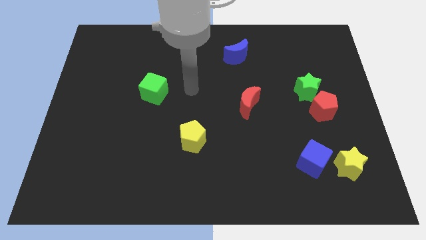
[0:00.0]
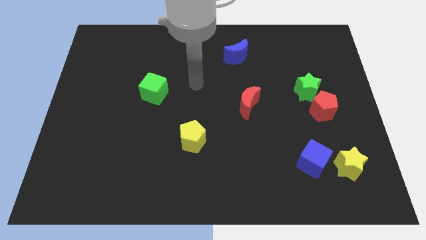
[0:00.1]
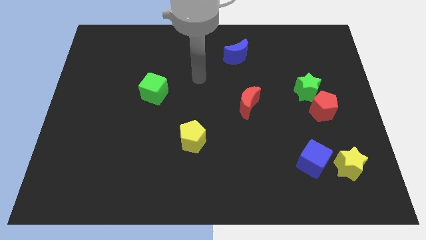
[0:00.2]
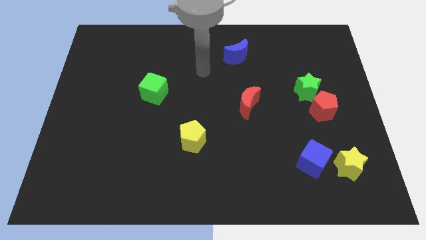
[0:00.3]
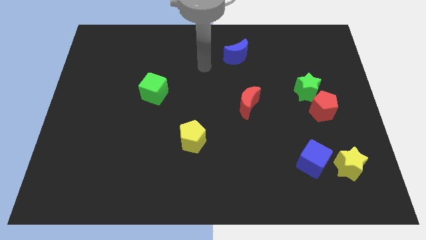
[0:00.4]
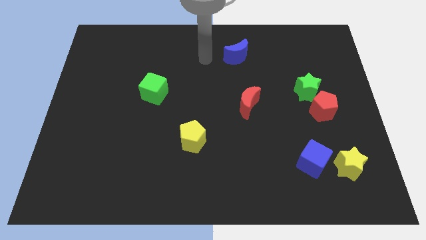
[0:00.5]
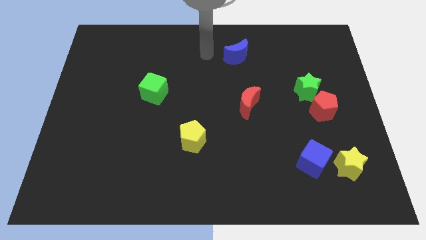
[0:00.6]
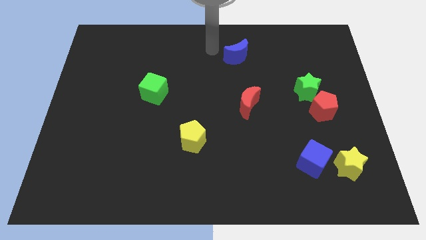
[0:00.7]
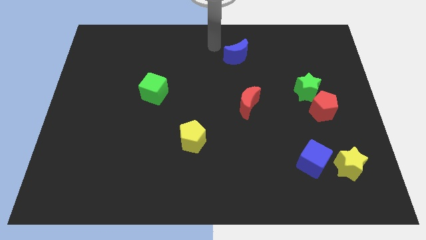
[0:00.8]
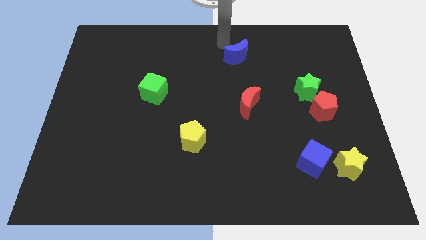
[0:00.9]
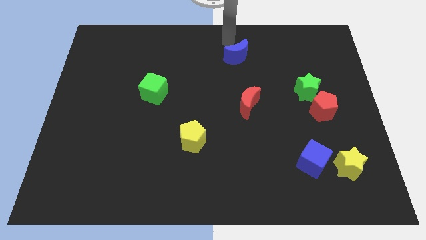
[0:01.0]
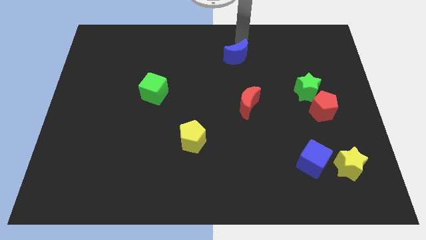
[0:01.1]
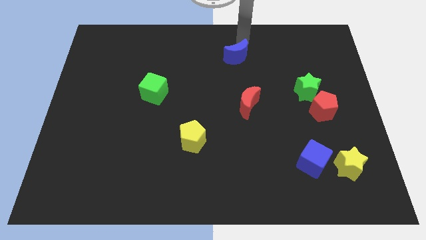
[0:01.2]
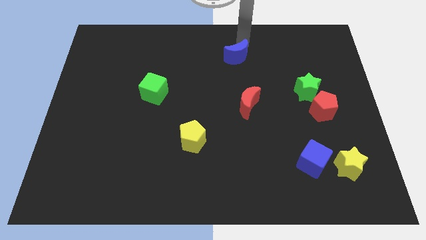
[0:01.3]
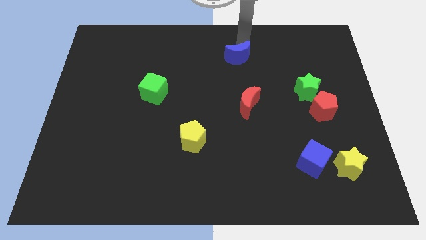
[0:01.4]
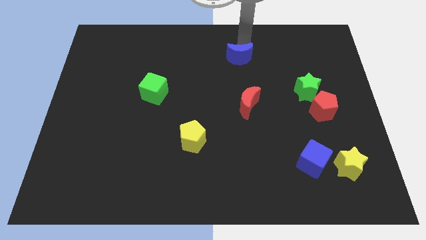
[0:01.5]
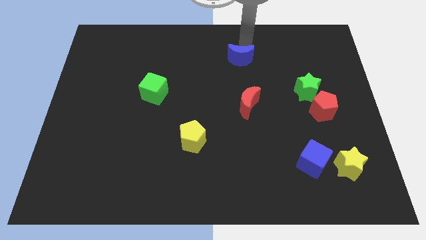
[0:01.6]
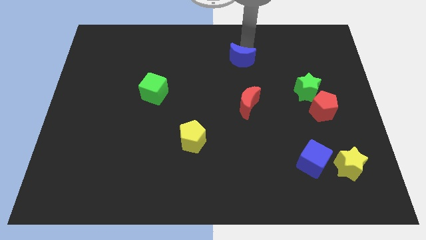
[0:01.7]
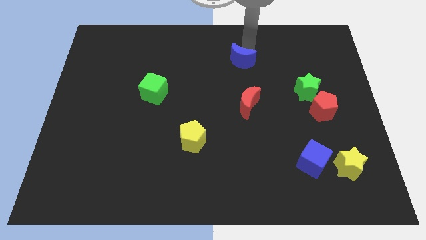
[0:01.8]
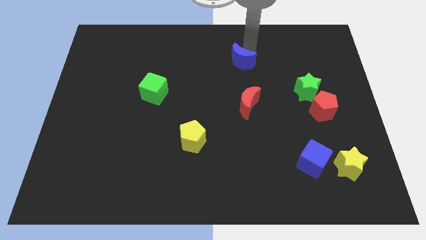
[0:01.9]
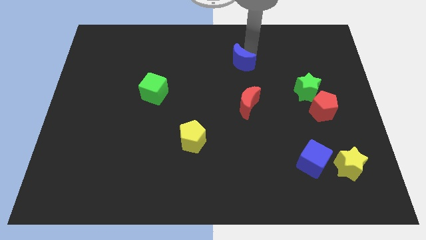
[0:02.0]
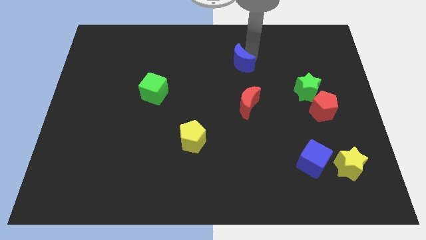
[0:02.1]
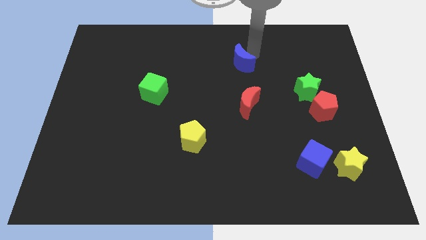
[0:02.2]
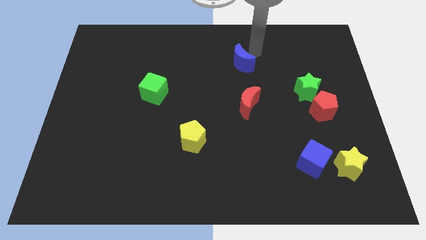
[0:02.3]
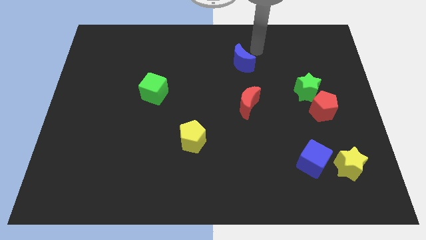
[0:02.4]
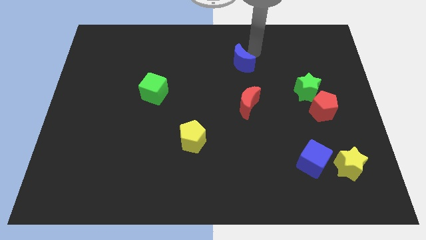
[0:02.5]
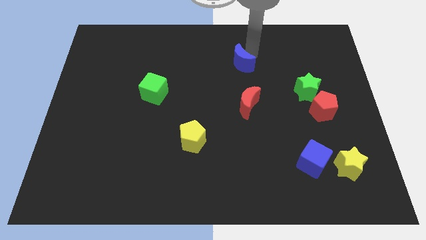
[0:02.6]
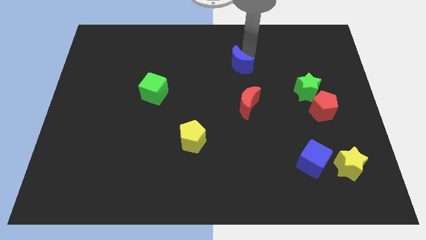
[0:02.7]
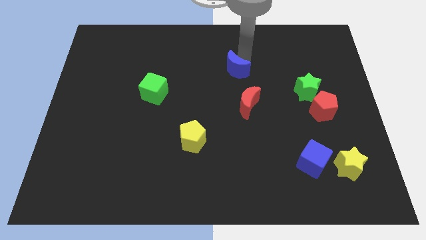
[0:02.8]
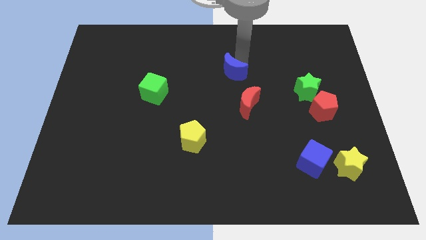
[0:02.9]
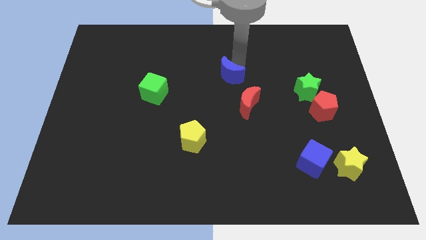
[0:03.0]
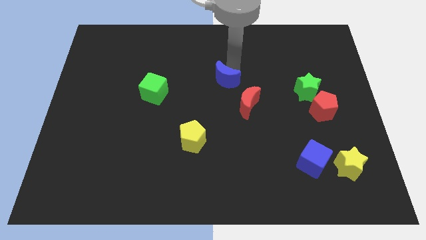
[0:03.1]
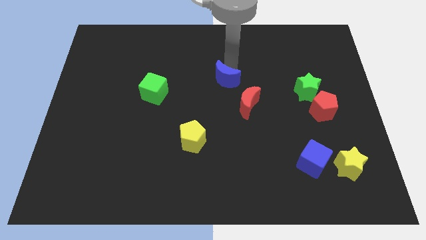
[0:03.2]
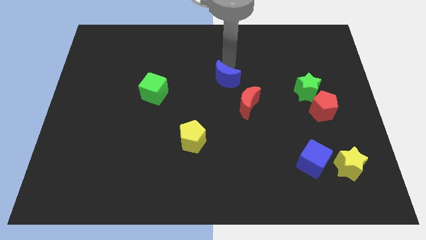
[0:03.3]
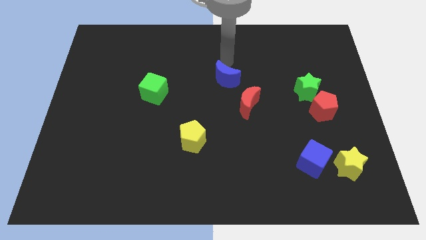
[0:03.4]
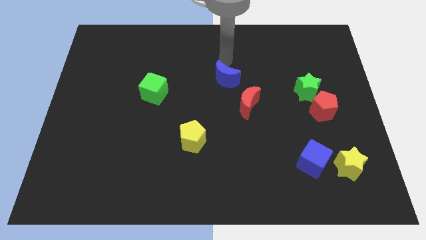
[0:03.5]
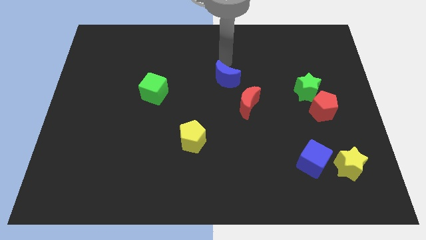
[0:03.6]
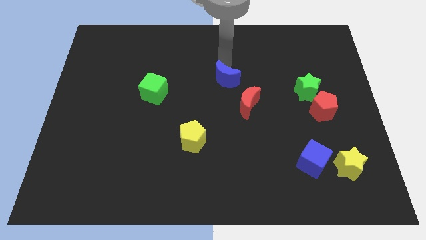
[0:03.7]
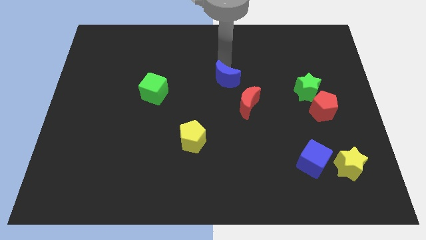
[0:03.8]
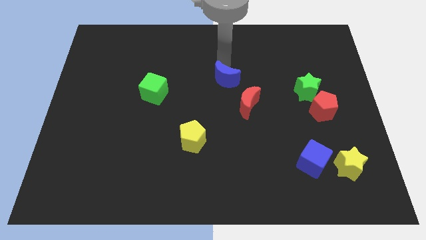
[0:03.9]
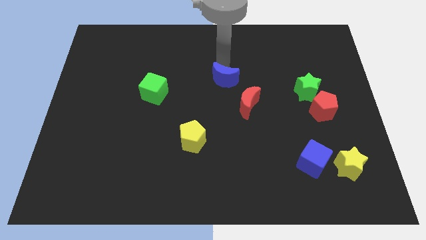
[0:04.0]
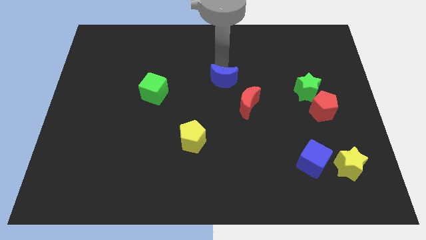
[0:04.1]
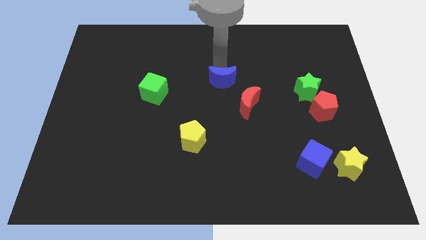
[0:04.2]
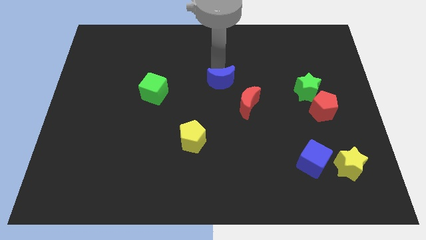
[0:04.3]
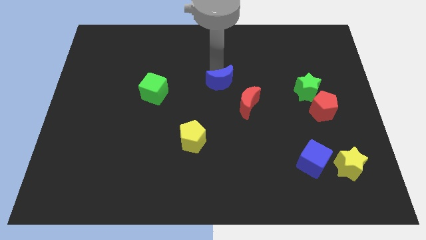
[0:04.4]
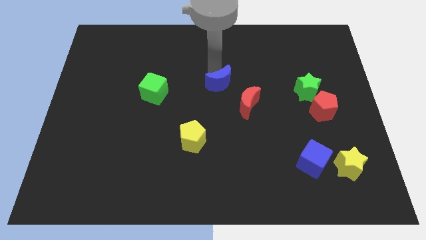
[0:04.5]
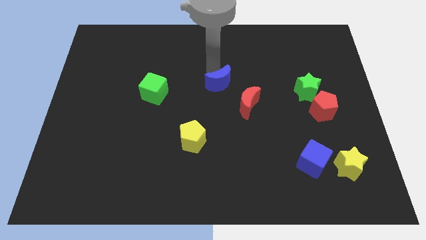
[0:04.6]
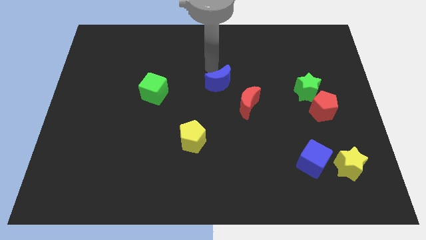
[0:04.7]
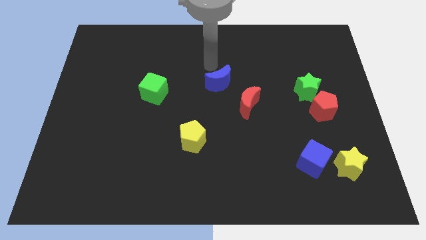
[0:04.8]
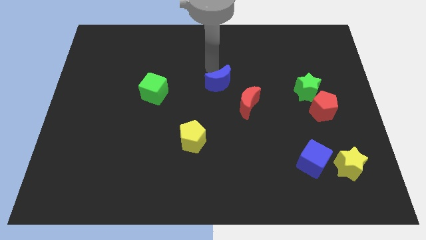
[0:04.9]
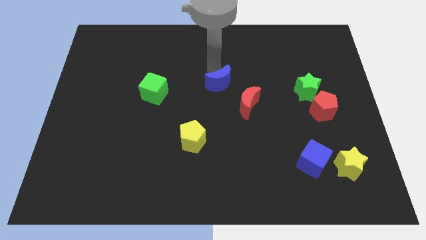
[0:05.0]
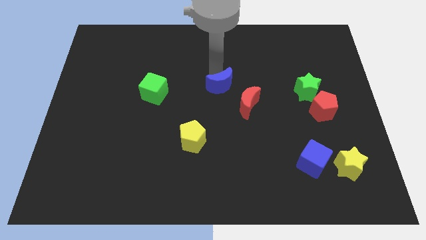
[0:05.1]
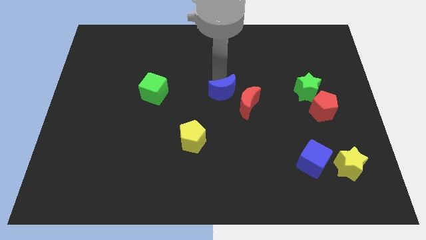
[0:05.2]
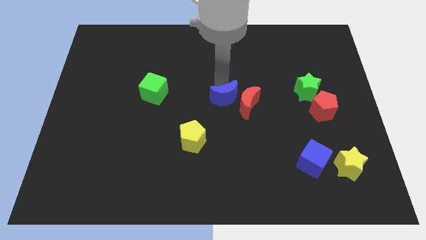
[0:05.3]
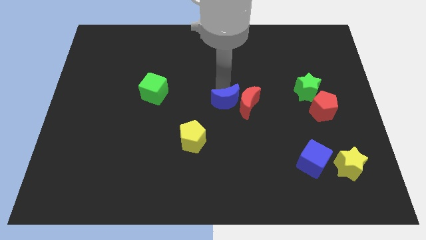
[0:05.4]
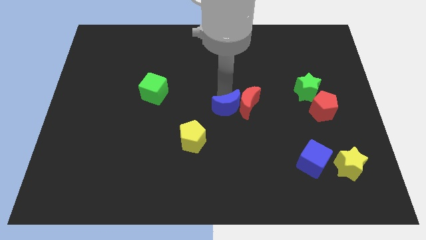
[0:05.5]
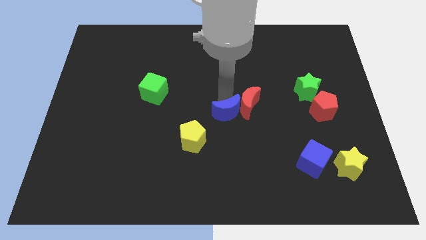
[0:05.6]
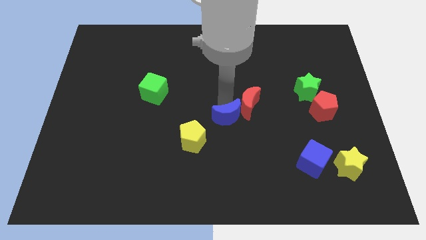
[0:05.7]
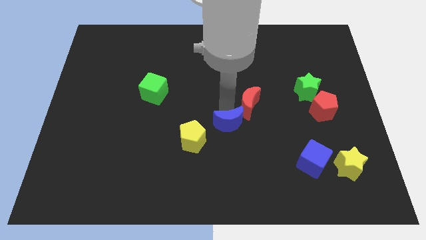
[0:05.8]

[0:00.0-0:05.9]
move the blue moon down

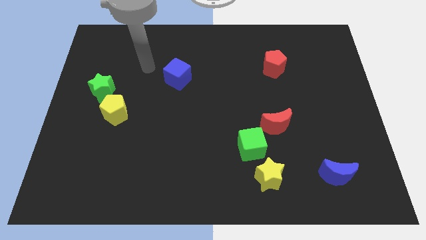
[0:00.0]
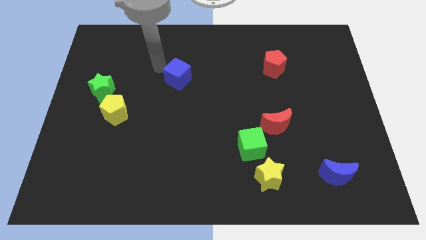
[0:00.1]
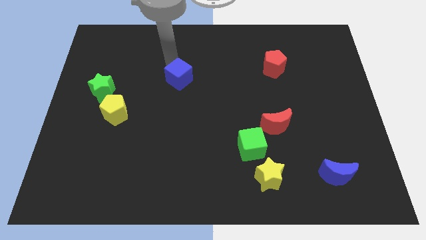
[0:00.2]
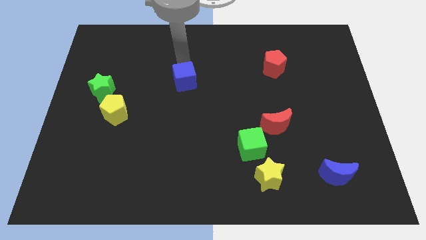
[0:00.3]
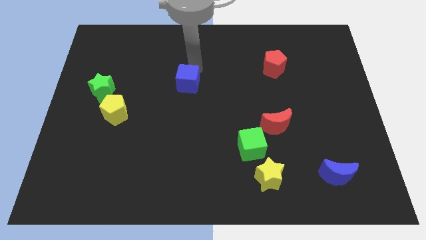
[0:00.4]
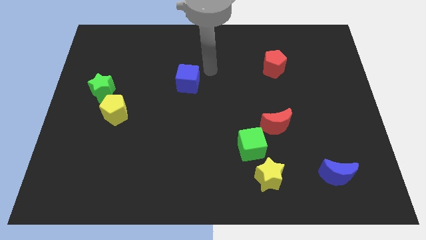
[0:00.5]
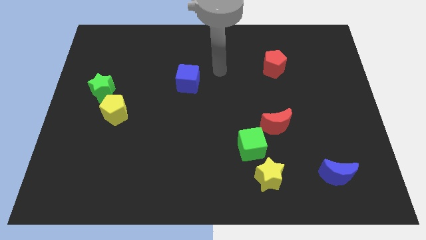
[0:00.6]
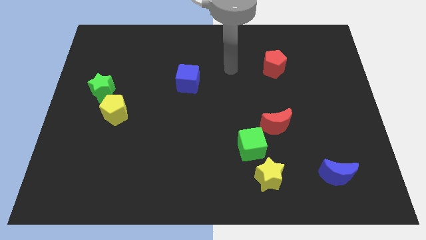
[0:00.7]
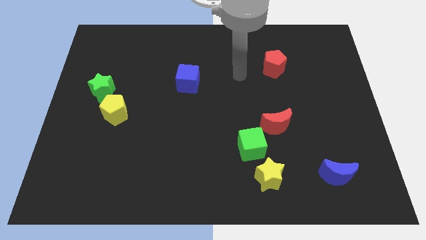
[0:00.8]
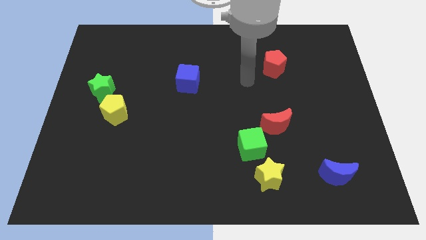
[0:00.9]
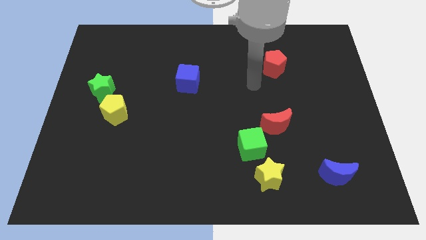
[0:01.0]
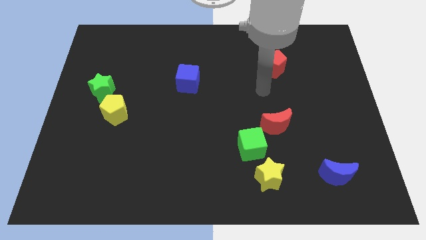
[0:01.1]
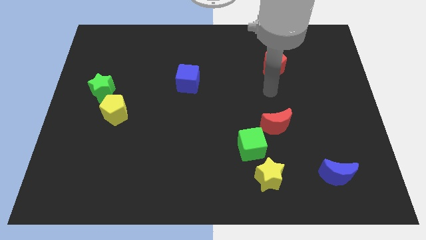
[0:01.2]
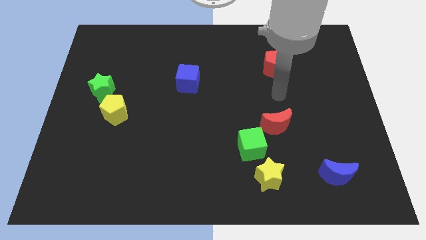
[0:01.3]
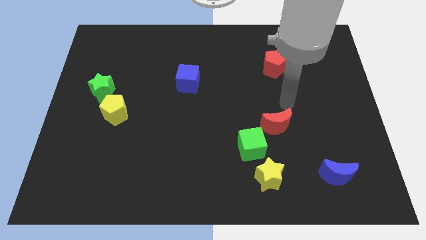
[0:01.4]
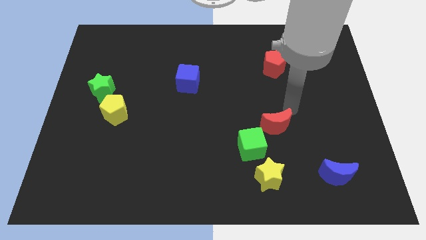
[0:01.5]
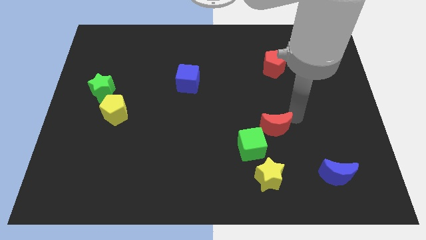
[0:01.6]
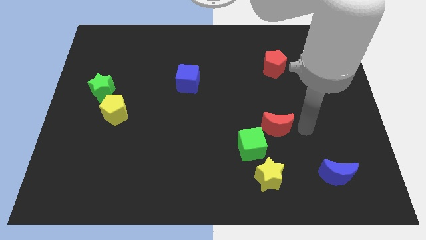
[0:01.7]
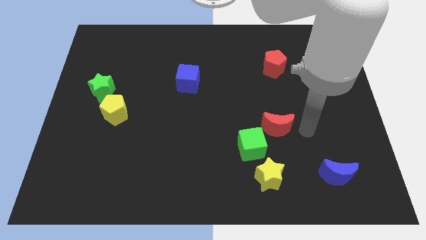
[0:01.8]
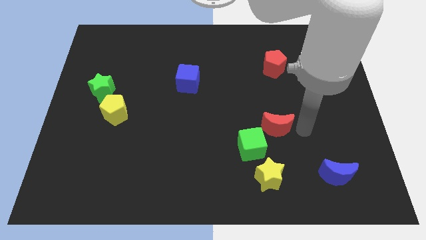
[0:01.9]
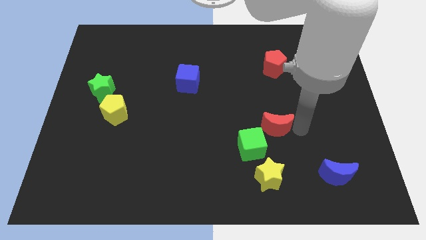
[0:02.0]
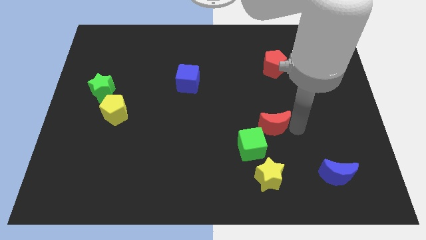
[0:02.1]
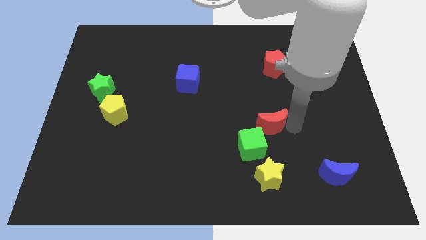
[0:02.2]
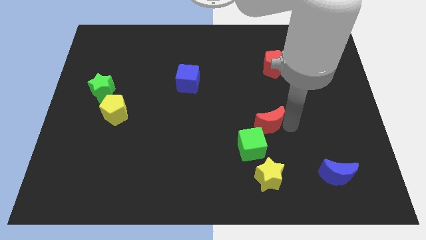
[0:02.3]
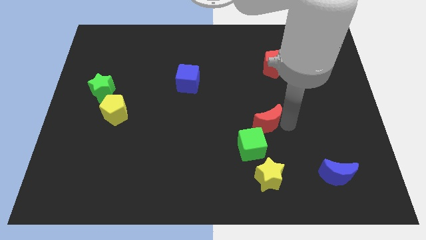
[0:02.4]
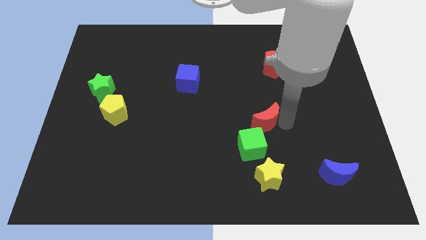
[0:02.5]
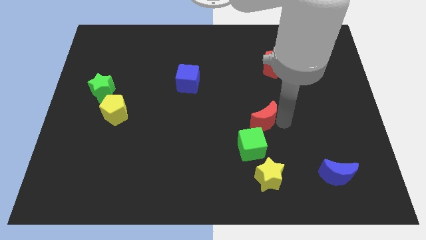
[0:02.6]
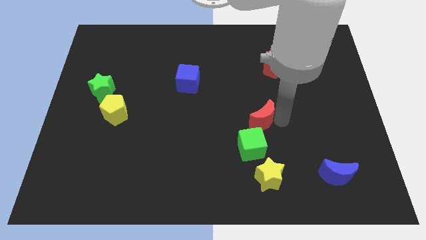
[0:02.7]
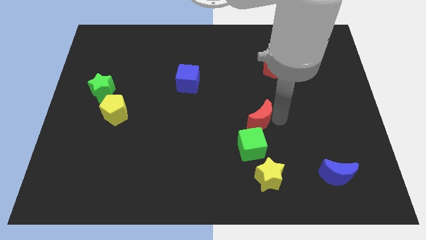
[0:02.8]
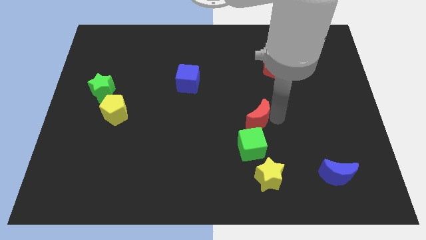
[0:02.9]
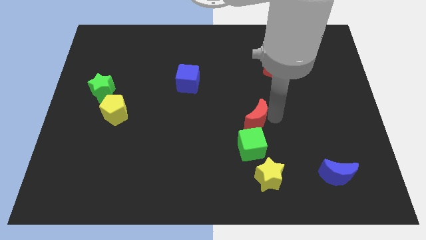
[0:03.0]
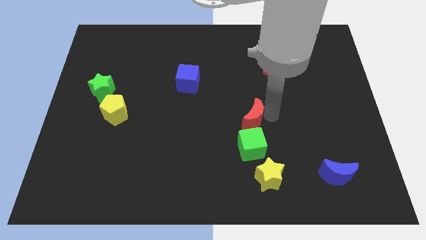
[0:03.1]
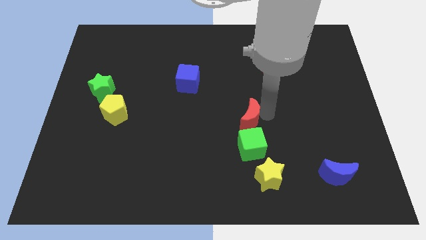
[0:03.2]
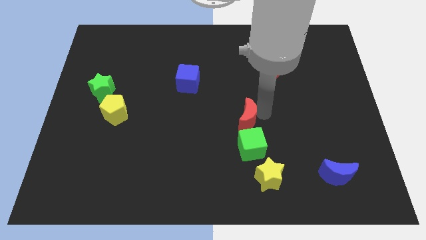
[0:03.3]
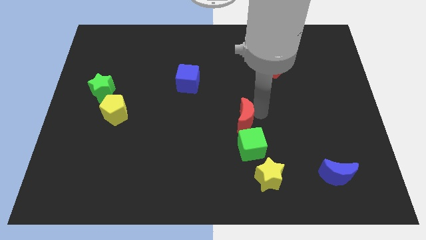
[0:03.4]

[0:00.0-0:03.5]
slide the red moon a bit to the left
